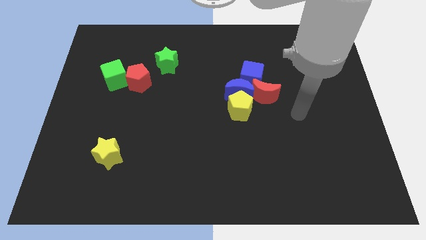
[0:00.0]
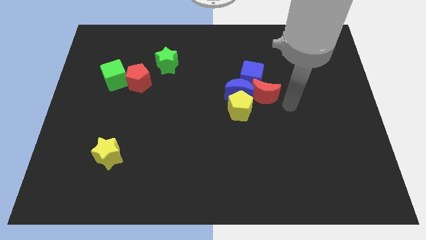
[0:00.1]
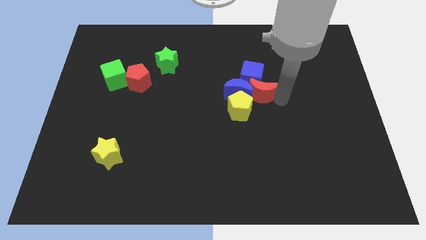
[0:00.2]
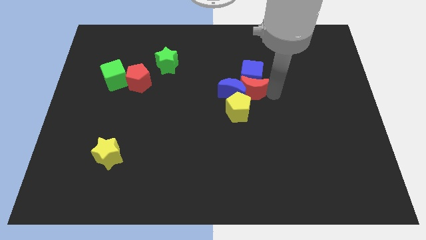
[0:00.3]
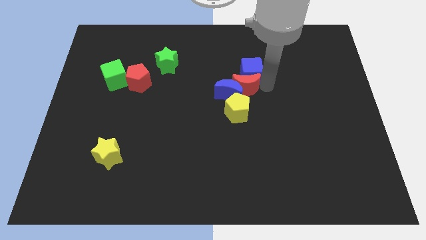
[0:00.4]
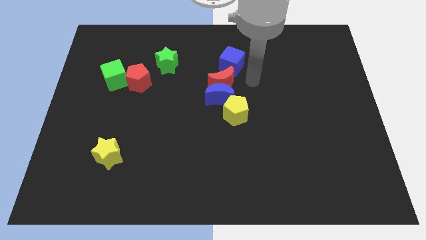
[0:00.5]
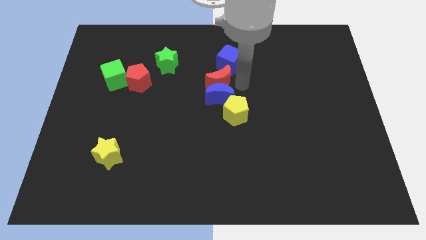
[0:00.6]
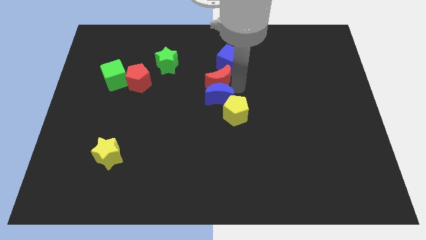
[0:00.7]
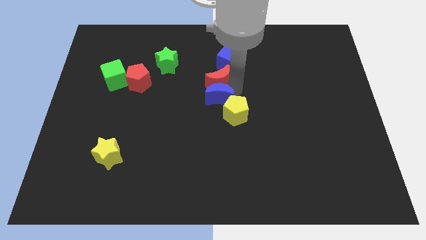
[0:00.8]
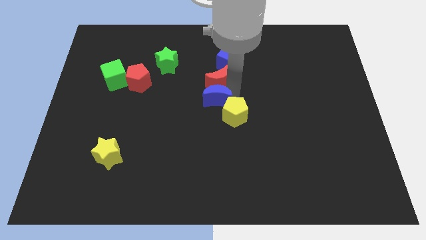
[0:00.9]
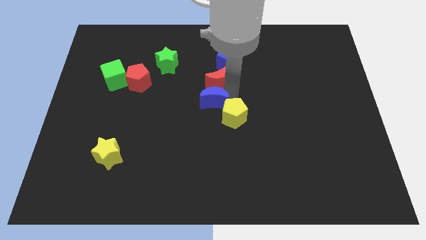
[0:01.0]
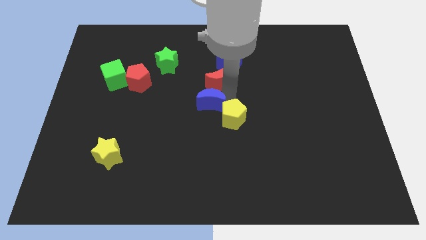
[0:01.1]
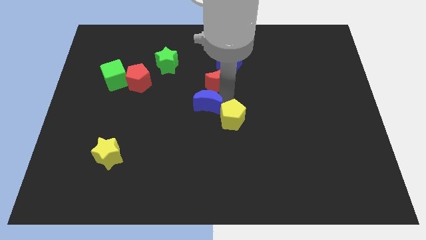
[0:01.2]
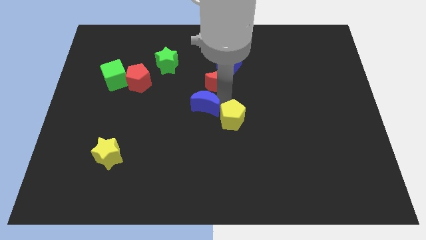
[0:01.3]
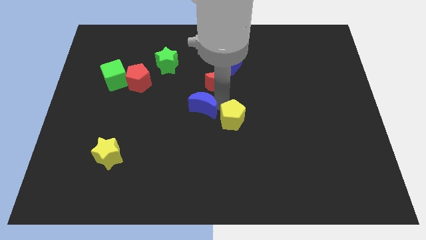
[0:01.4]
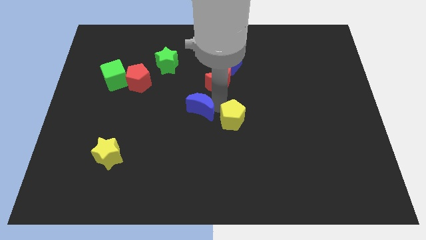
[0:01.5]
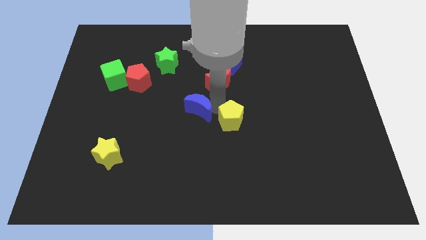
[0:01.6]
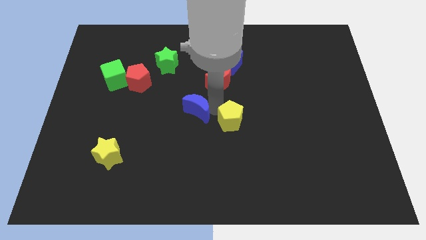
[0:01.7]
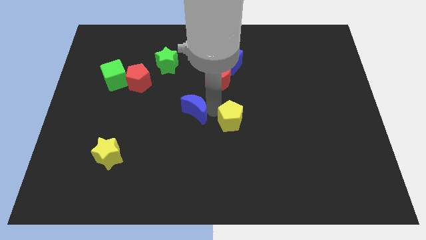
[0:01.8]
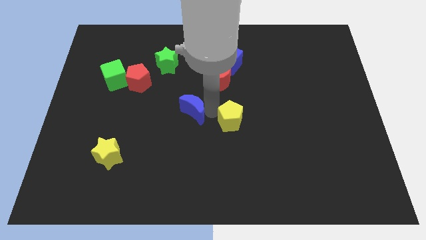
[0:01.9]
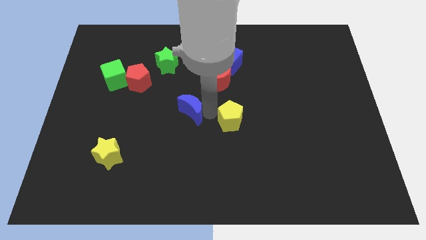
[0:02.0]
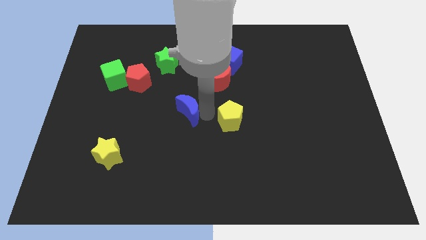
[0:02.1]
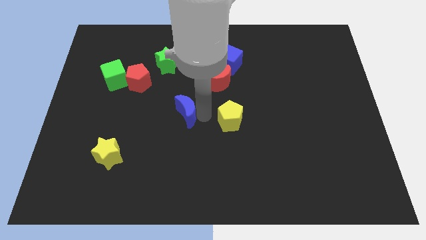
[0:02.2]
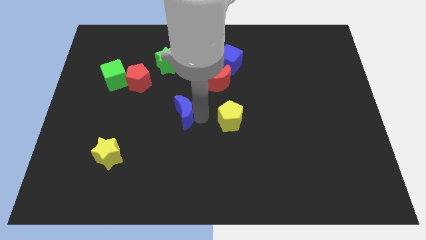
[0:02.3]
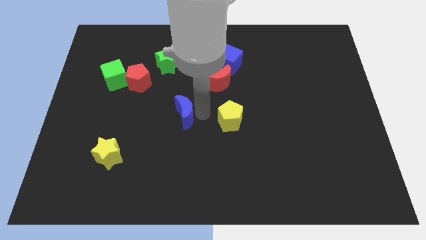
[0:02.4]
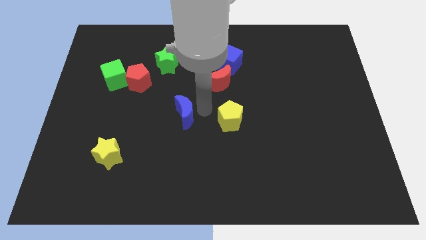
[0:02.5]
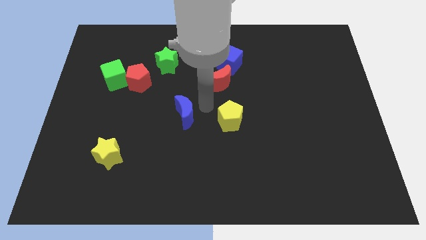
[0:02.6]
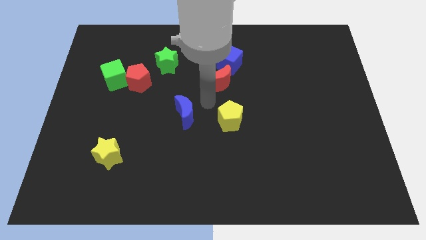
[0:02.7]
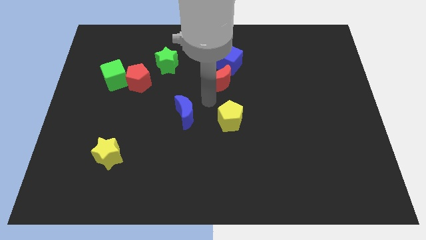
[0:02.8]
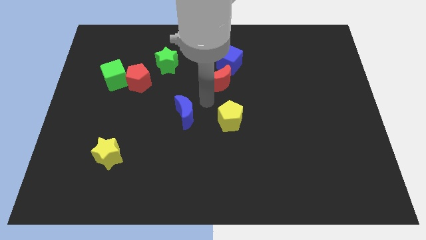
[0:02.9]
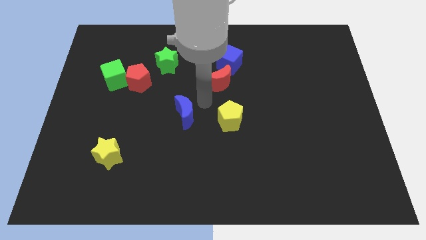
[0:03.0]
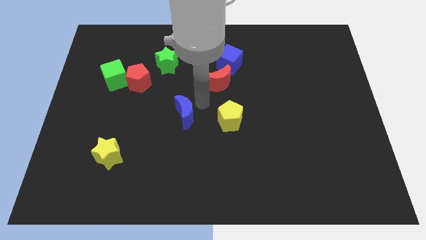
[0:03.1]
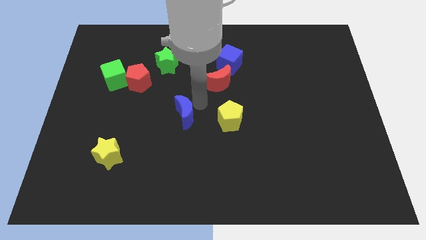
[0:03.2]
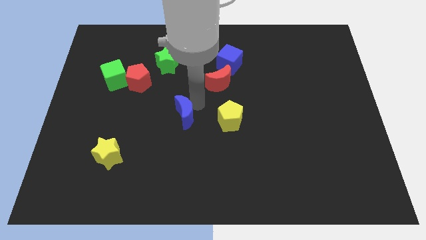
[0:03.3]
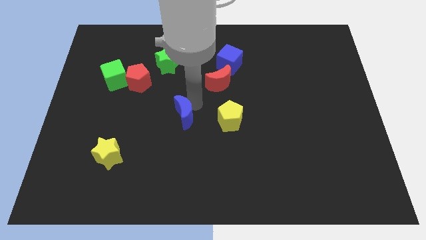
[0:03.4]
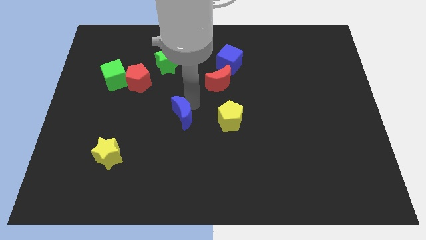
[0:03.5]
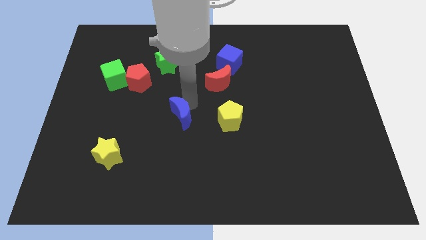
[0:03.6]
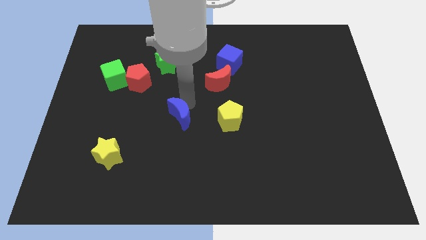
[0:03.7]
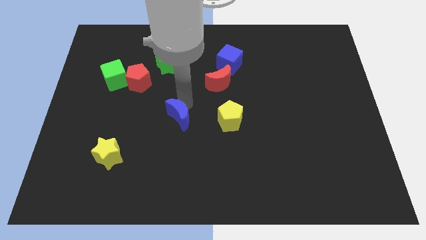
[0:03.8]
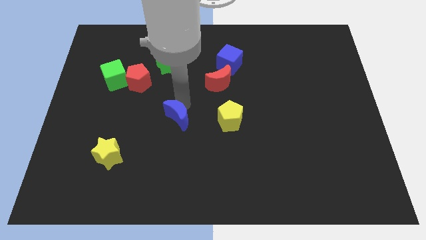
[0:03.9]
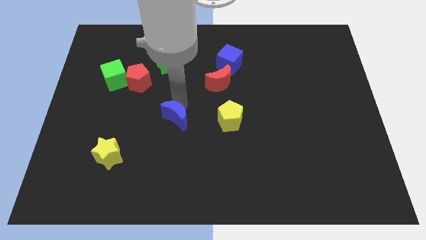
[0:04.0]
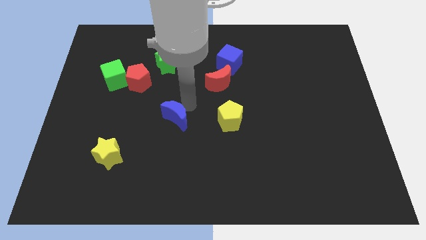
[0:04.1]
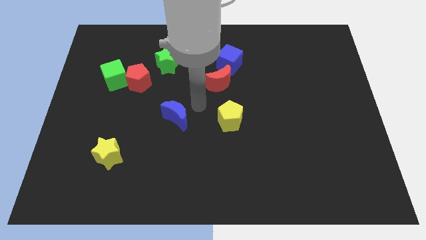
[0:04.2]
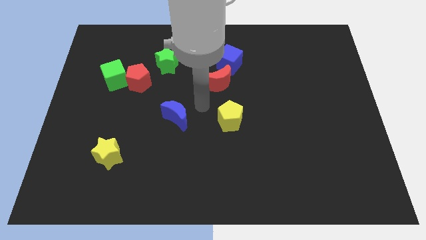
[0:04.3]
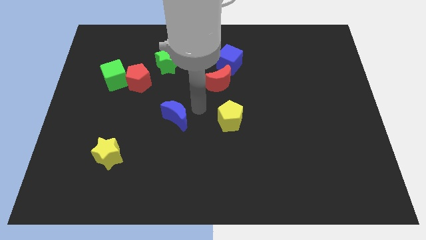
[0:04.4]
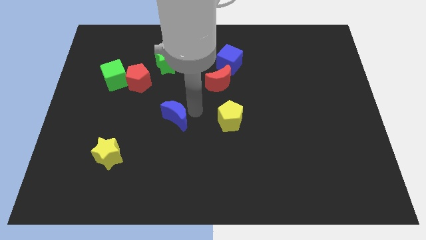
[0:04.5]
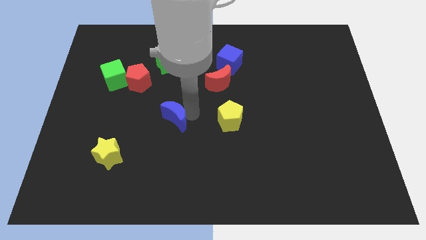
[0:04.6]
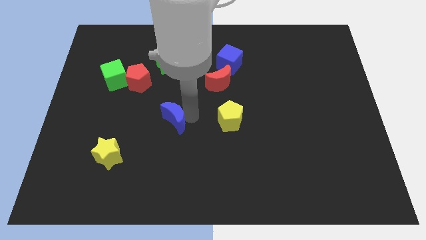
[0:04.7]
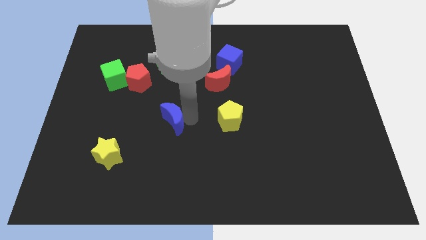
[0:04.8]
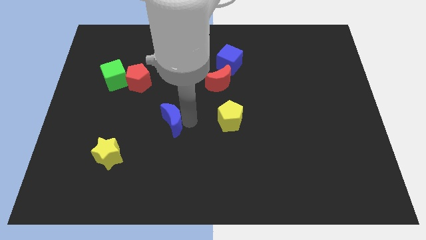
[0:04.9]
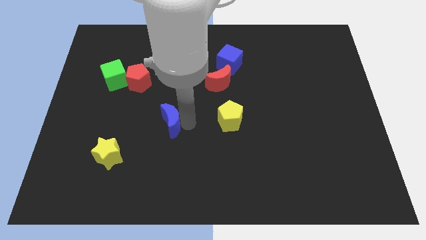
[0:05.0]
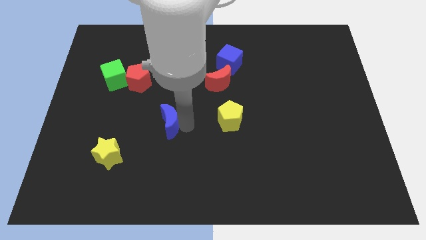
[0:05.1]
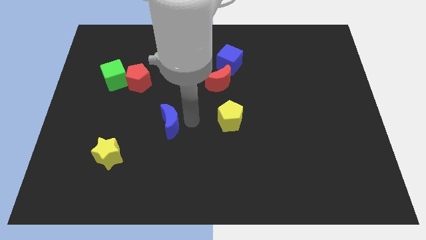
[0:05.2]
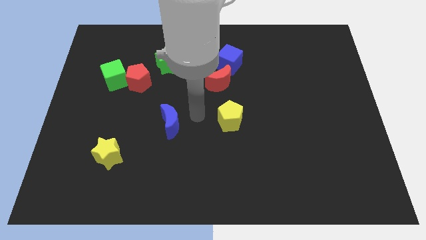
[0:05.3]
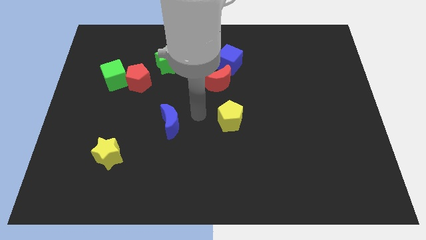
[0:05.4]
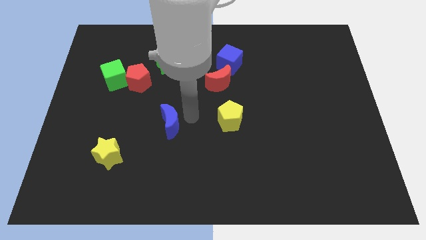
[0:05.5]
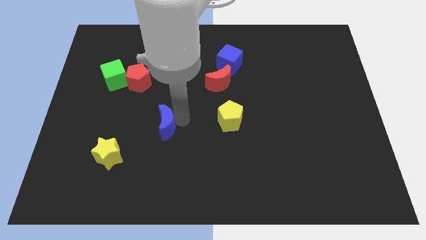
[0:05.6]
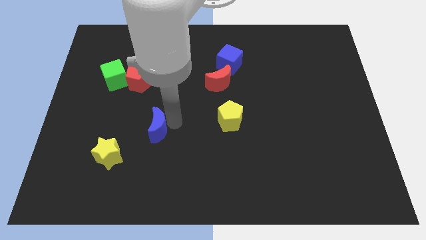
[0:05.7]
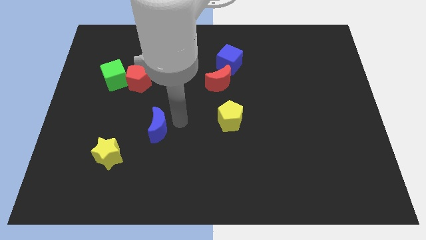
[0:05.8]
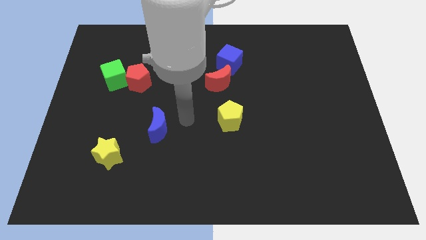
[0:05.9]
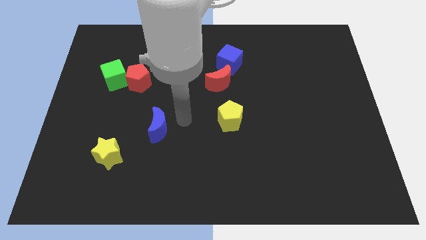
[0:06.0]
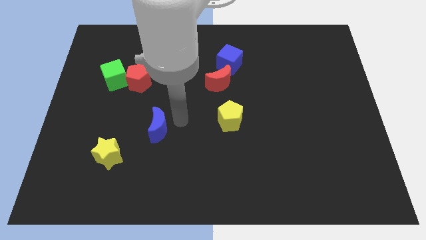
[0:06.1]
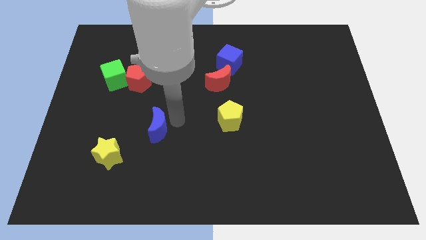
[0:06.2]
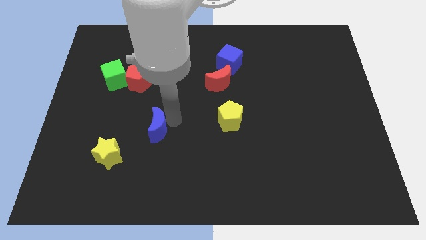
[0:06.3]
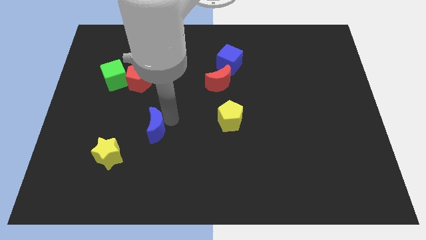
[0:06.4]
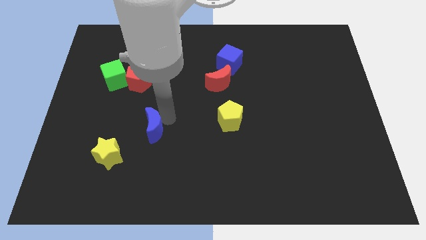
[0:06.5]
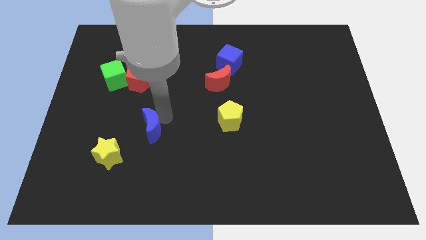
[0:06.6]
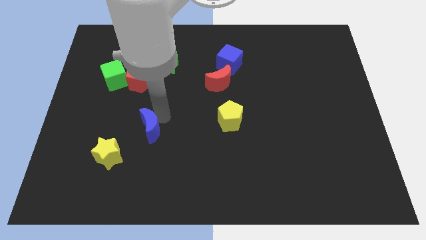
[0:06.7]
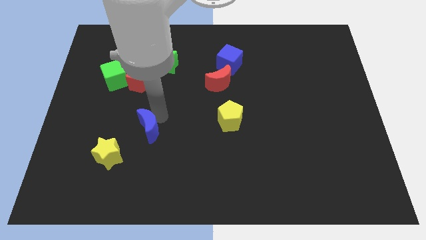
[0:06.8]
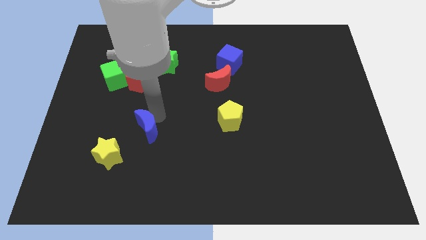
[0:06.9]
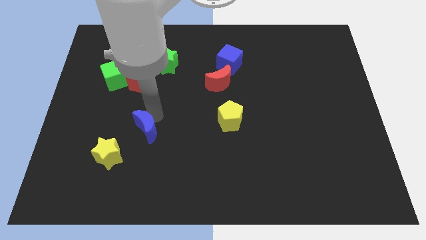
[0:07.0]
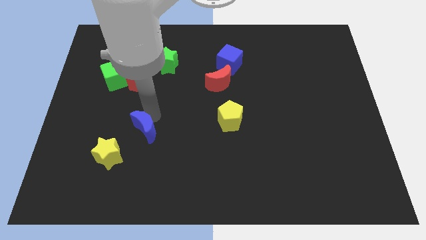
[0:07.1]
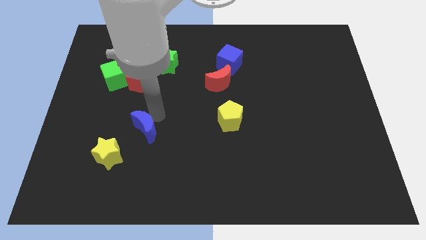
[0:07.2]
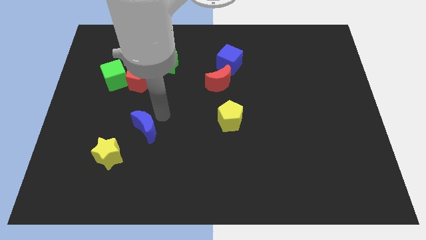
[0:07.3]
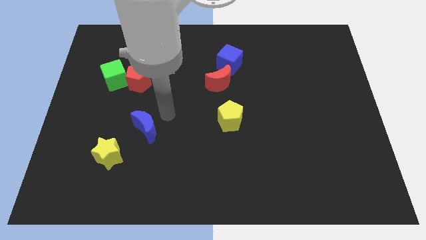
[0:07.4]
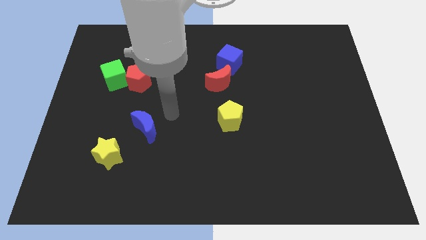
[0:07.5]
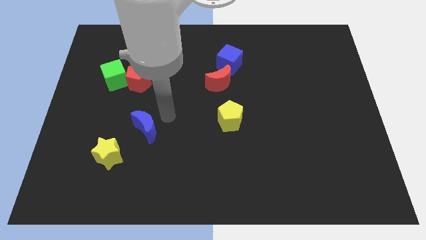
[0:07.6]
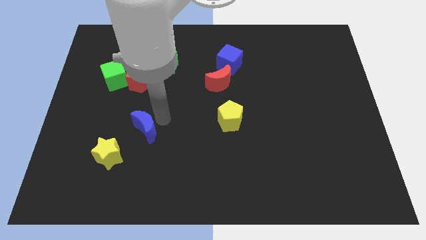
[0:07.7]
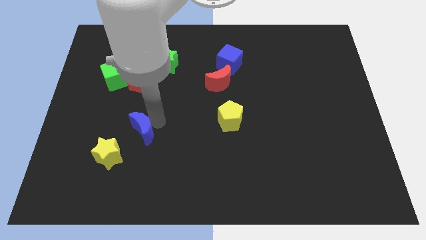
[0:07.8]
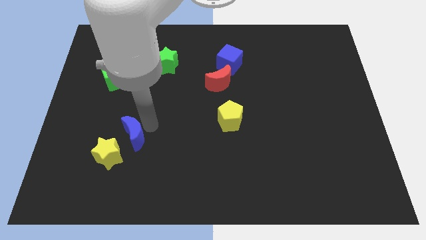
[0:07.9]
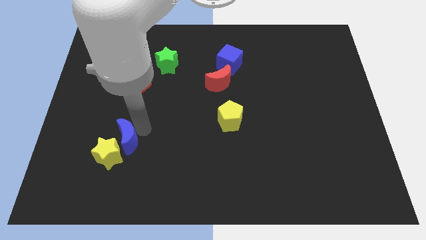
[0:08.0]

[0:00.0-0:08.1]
slide the blue moon next to the yellow star
